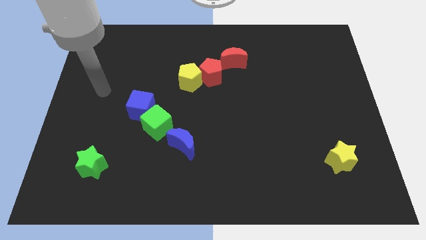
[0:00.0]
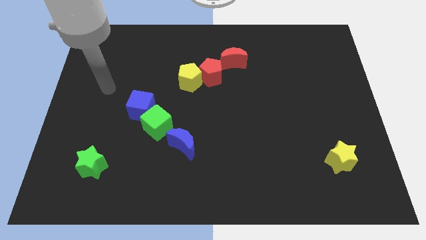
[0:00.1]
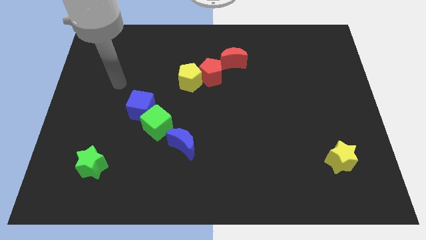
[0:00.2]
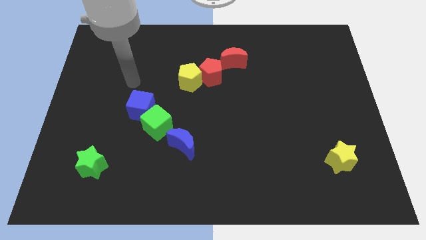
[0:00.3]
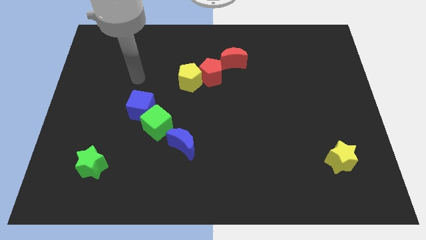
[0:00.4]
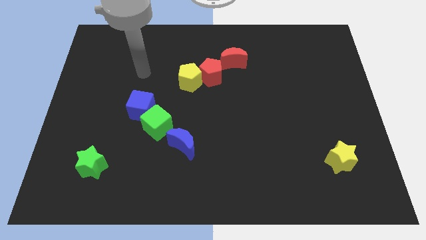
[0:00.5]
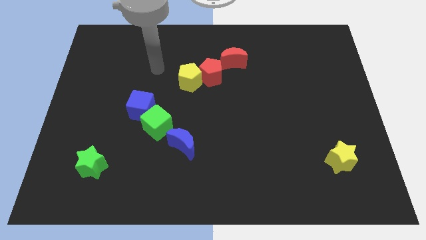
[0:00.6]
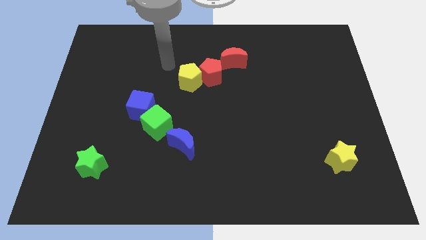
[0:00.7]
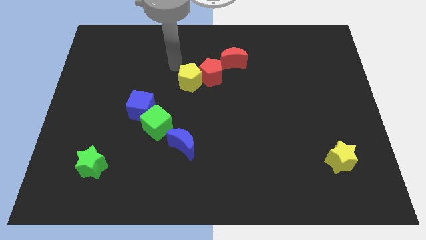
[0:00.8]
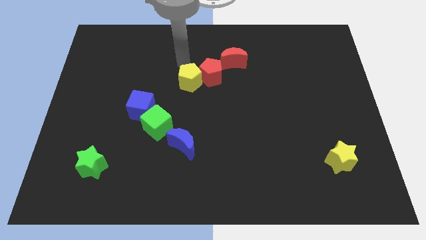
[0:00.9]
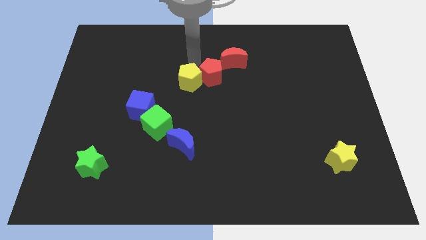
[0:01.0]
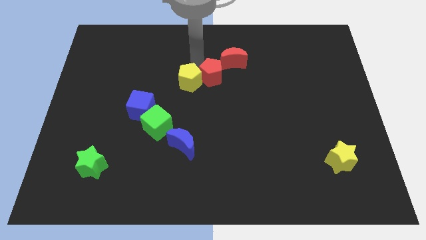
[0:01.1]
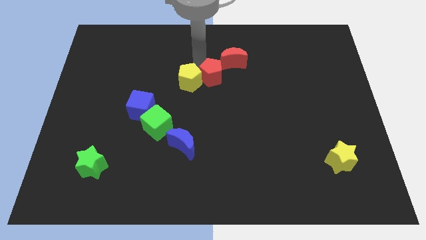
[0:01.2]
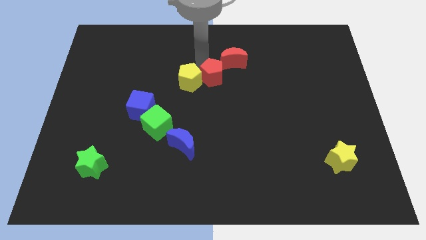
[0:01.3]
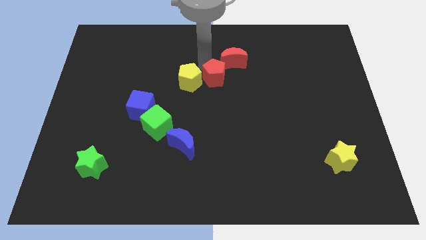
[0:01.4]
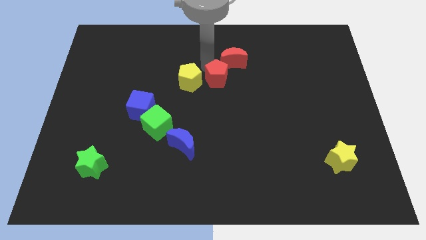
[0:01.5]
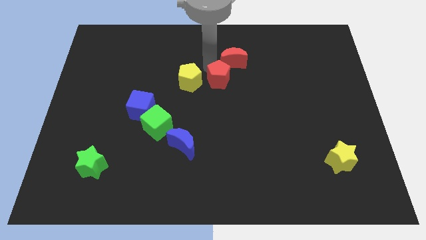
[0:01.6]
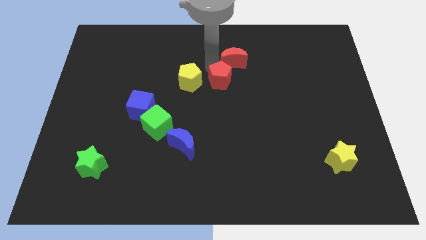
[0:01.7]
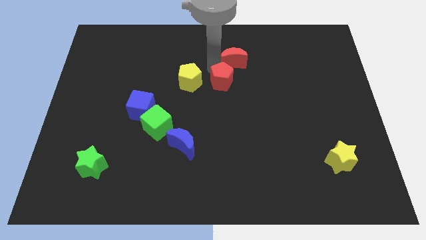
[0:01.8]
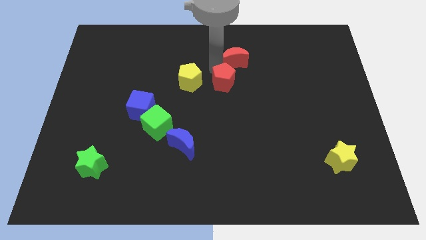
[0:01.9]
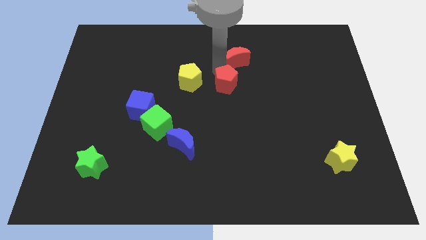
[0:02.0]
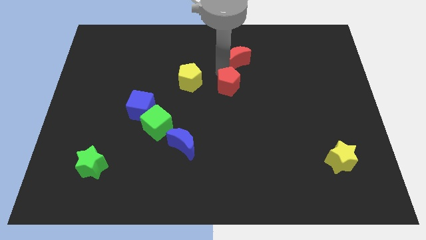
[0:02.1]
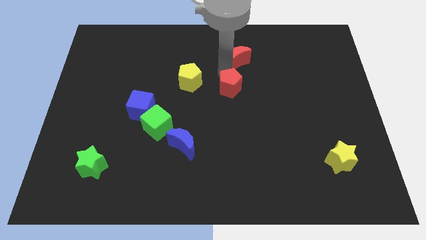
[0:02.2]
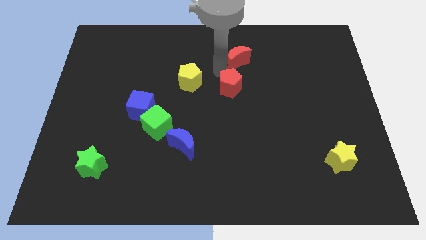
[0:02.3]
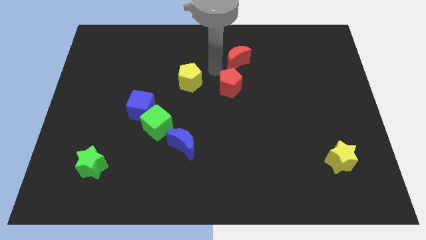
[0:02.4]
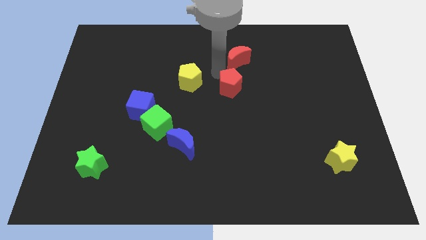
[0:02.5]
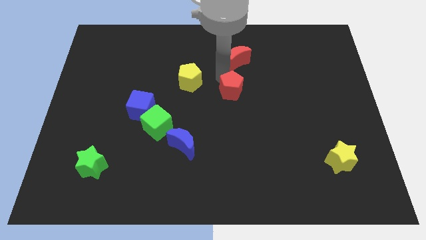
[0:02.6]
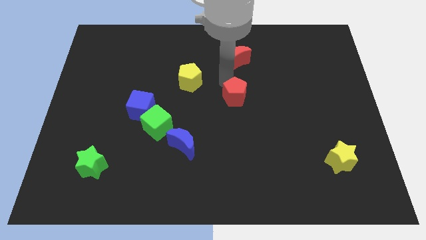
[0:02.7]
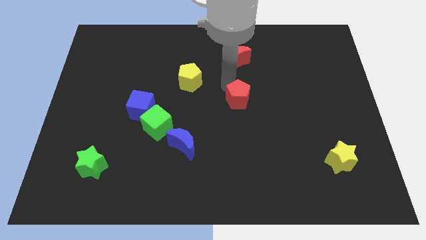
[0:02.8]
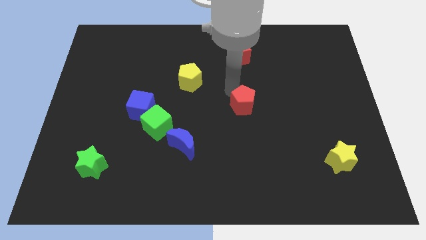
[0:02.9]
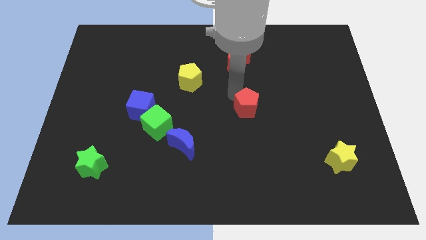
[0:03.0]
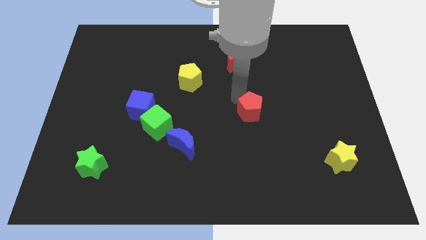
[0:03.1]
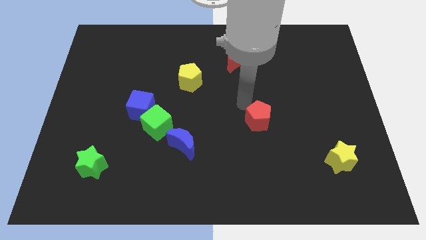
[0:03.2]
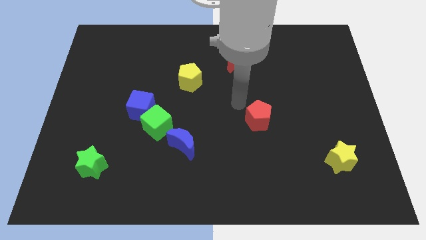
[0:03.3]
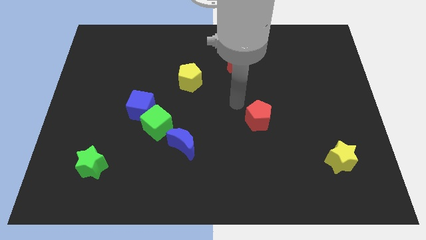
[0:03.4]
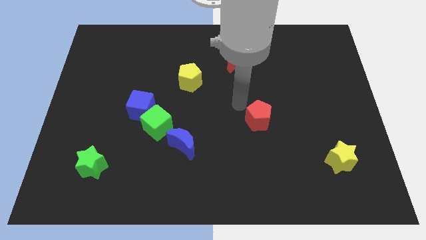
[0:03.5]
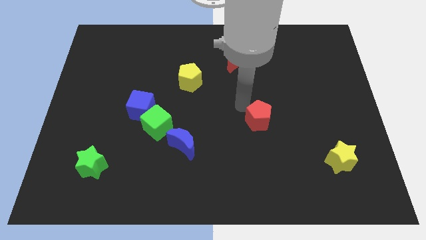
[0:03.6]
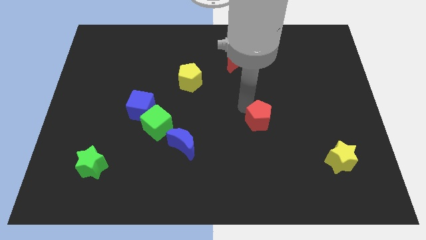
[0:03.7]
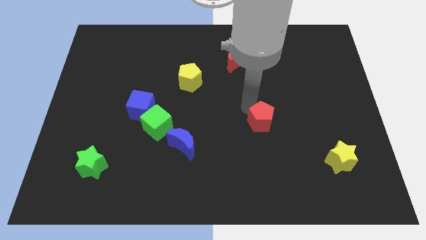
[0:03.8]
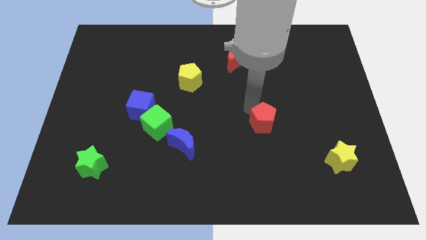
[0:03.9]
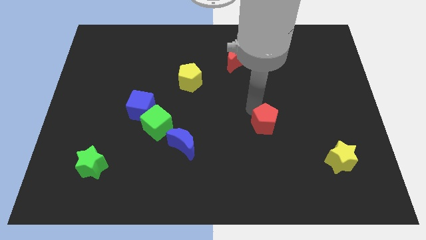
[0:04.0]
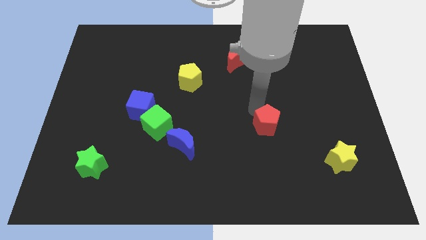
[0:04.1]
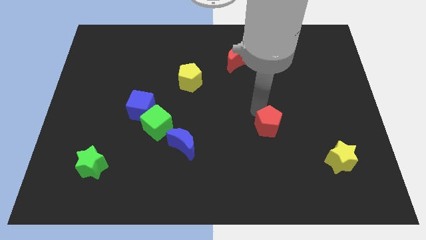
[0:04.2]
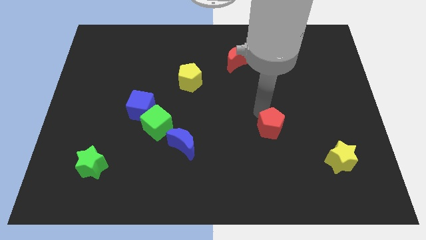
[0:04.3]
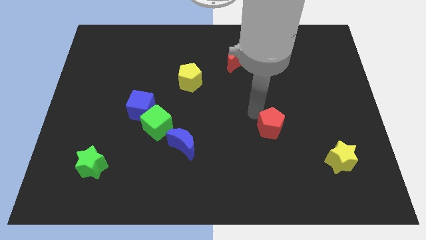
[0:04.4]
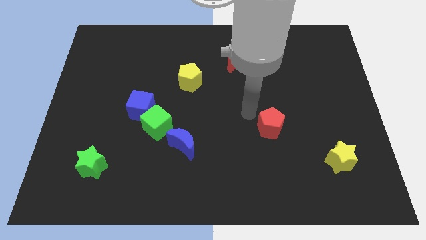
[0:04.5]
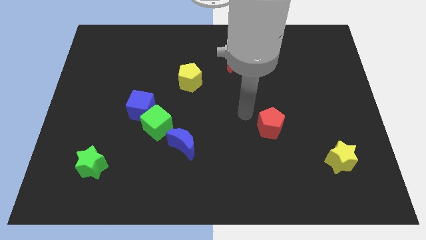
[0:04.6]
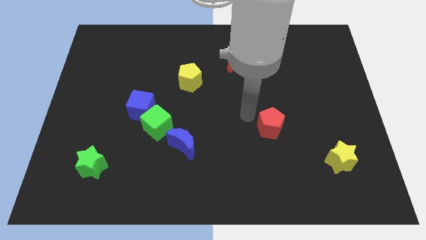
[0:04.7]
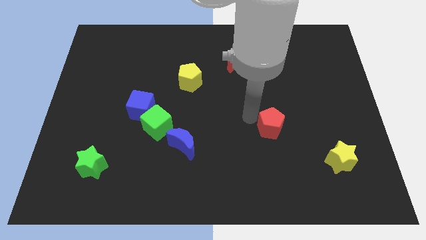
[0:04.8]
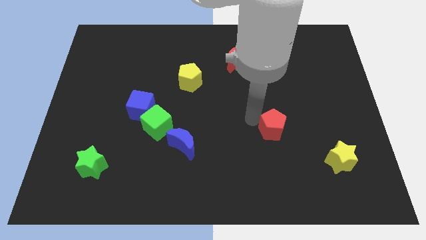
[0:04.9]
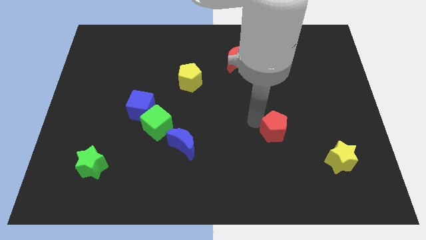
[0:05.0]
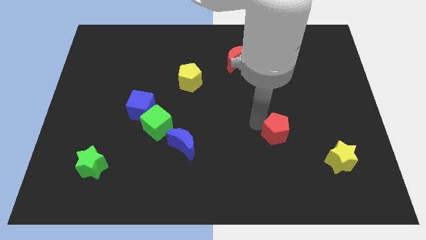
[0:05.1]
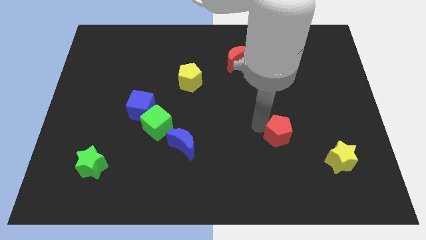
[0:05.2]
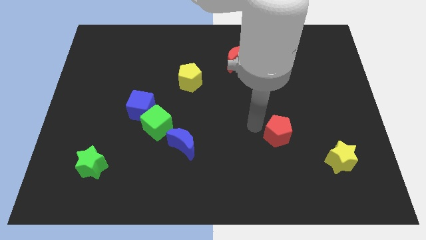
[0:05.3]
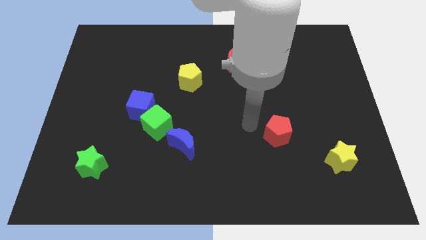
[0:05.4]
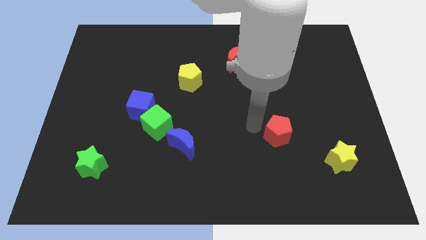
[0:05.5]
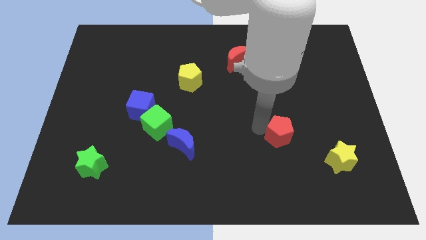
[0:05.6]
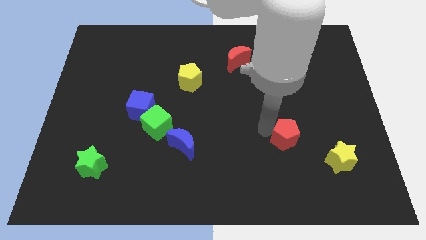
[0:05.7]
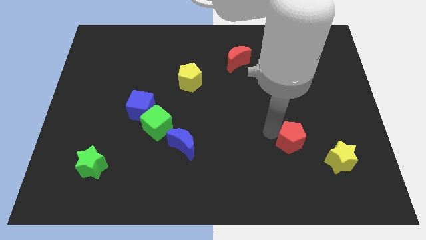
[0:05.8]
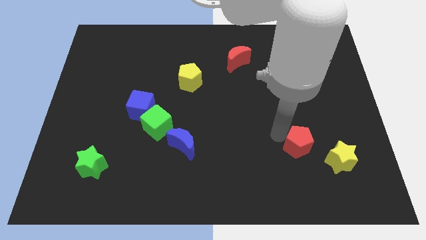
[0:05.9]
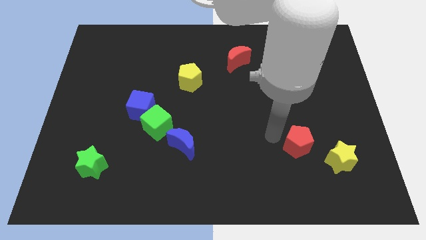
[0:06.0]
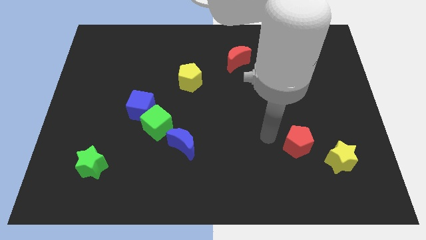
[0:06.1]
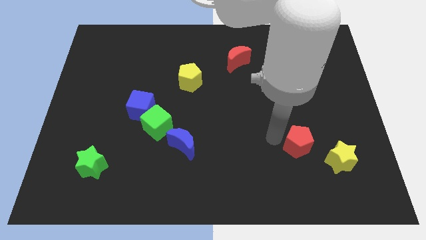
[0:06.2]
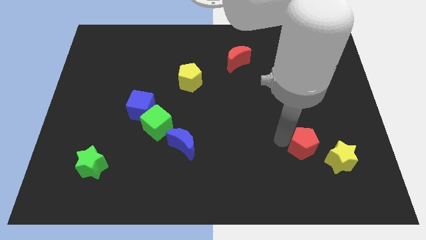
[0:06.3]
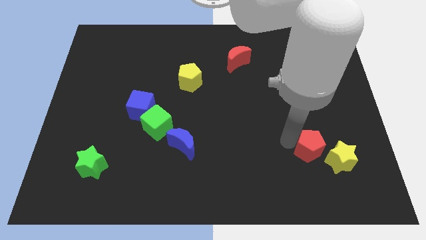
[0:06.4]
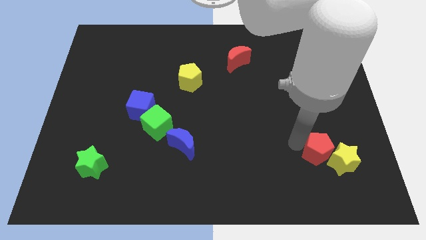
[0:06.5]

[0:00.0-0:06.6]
put the red pentagon close to the yellow star

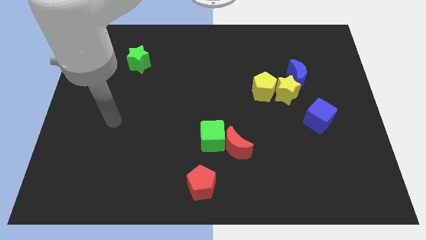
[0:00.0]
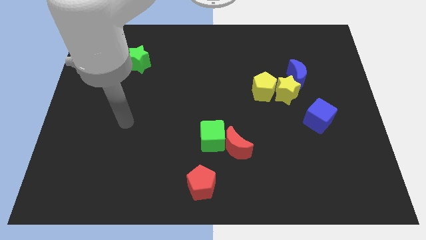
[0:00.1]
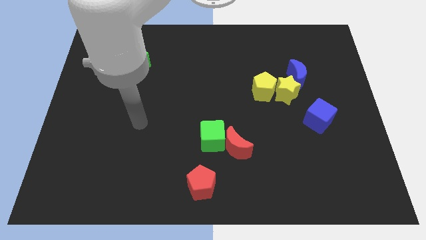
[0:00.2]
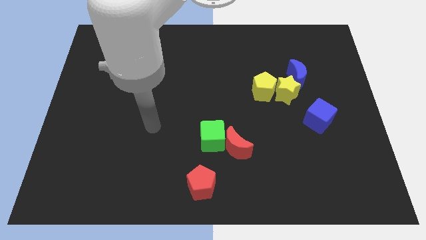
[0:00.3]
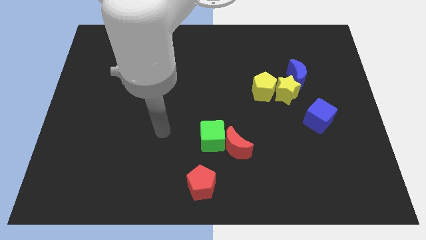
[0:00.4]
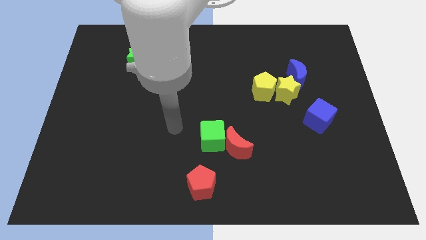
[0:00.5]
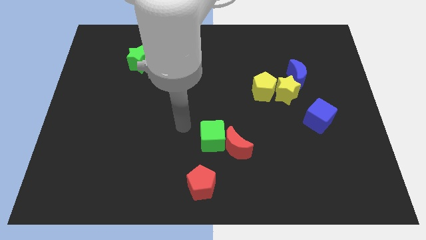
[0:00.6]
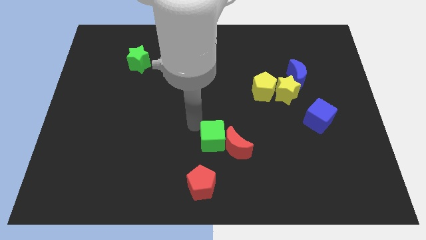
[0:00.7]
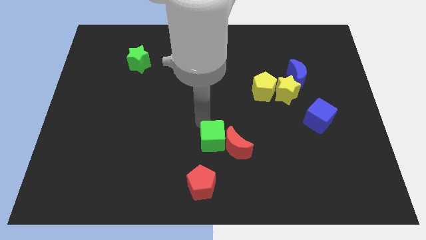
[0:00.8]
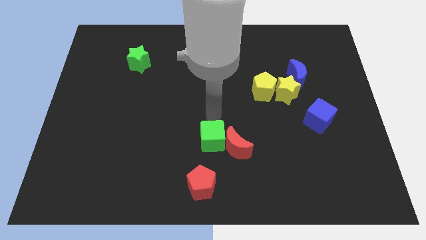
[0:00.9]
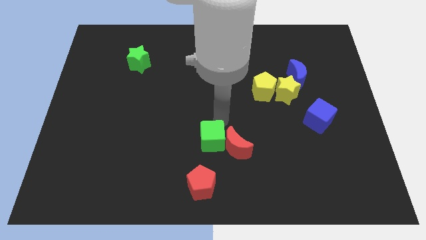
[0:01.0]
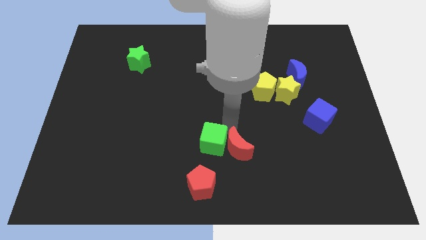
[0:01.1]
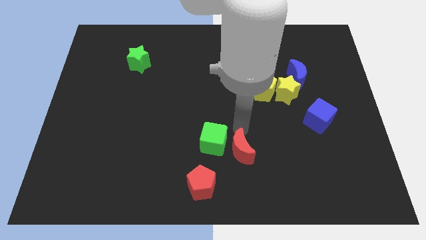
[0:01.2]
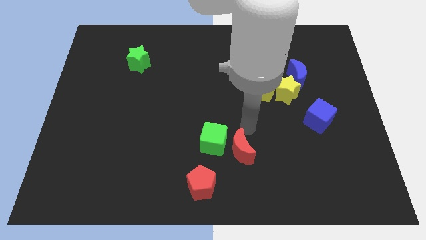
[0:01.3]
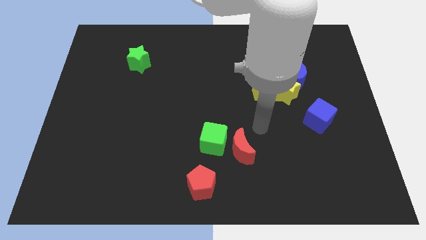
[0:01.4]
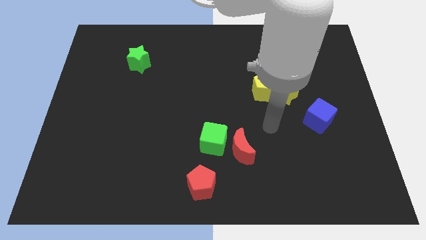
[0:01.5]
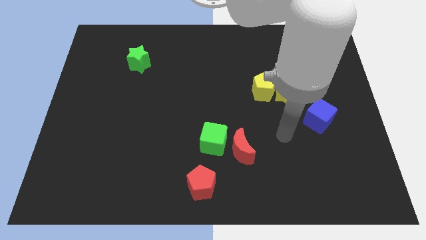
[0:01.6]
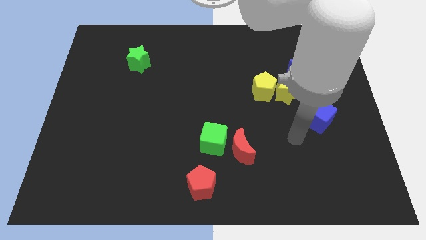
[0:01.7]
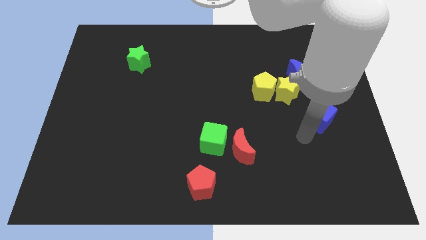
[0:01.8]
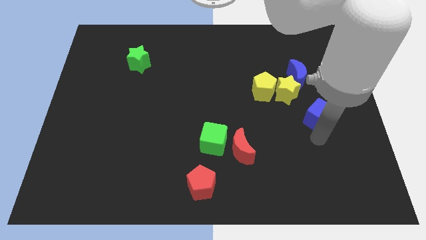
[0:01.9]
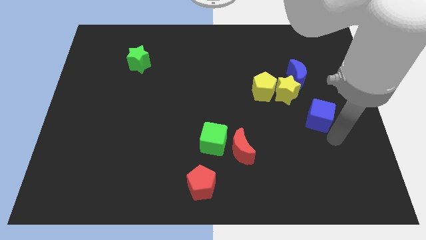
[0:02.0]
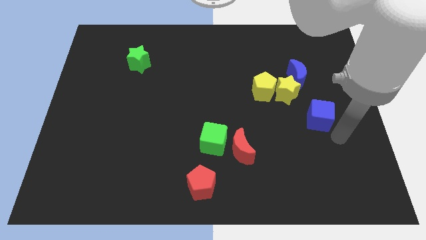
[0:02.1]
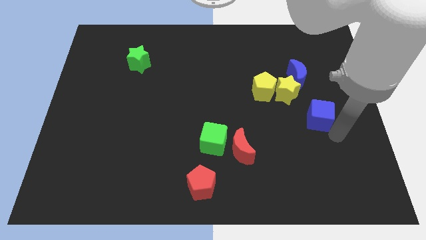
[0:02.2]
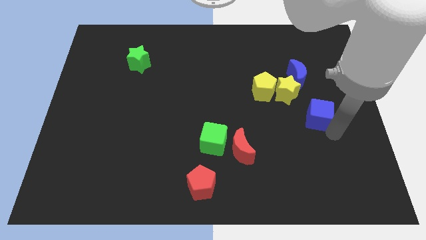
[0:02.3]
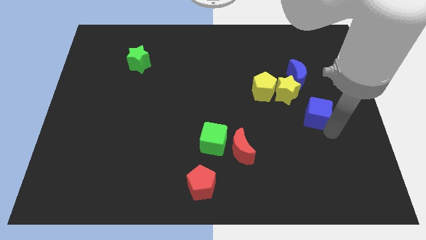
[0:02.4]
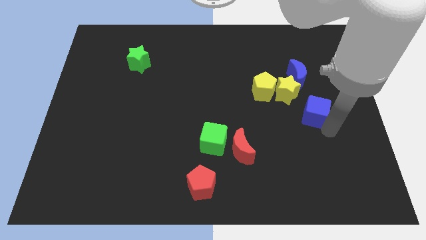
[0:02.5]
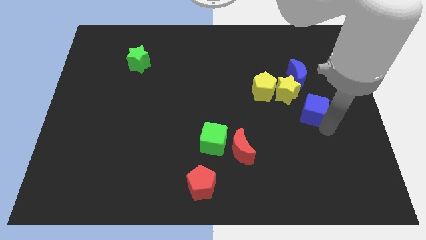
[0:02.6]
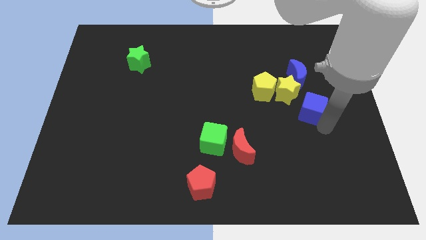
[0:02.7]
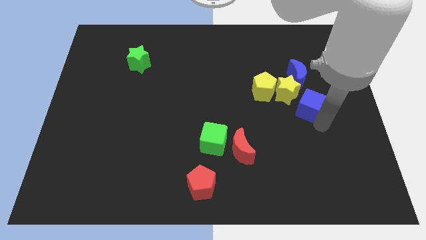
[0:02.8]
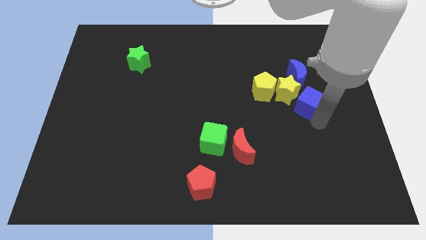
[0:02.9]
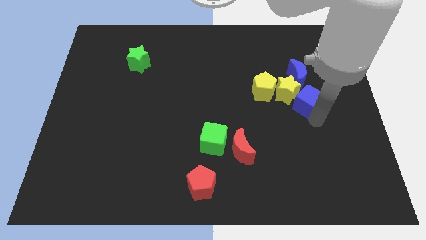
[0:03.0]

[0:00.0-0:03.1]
move the blue cube towards the yellow star
